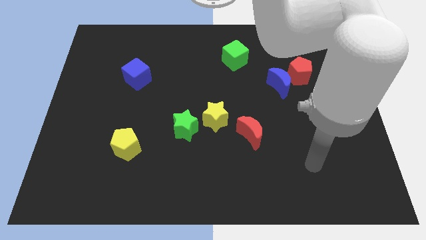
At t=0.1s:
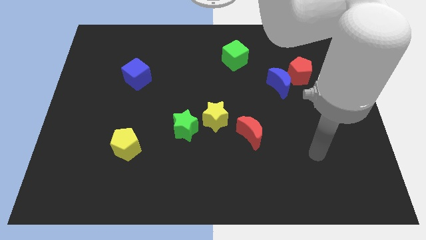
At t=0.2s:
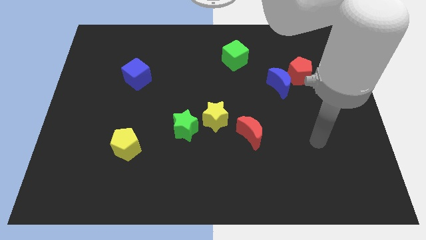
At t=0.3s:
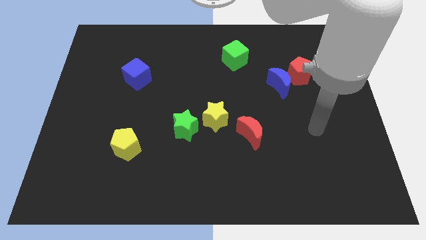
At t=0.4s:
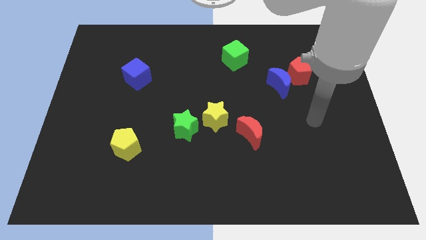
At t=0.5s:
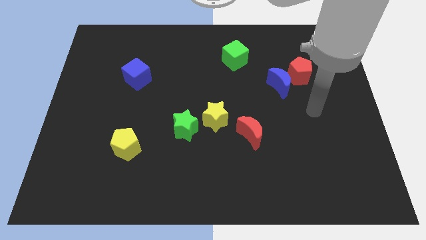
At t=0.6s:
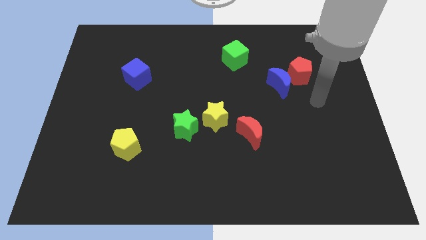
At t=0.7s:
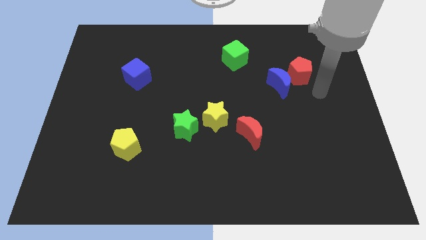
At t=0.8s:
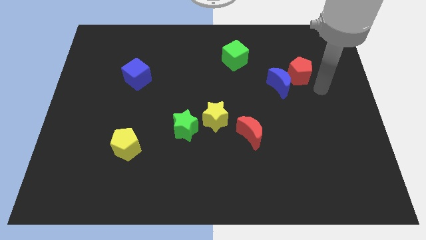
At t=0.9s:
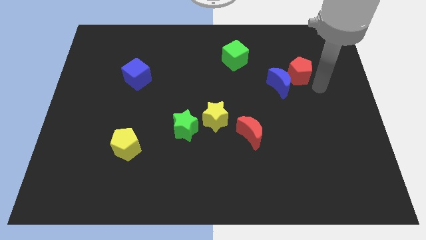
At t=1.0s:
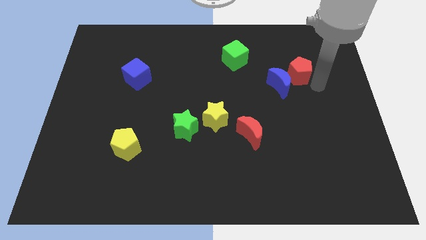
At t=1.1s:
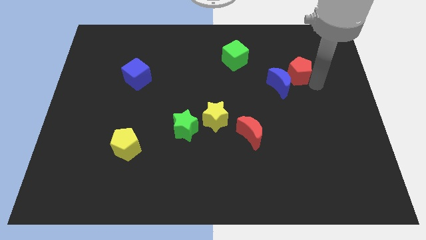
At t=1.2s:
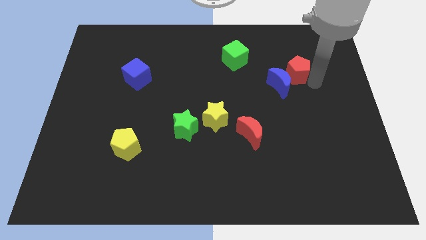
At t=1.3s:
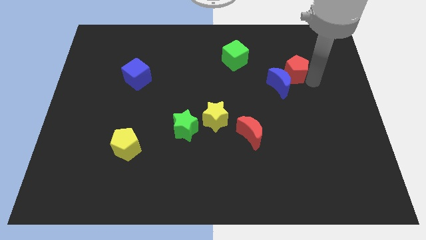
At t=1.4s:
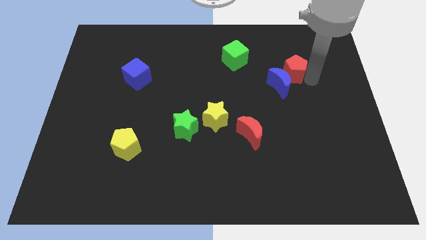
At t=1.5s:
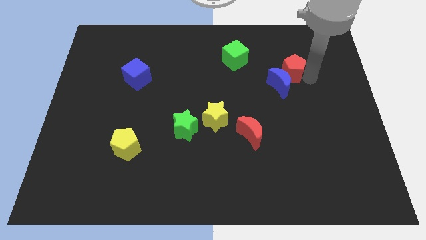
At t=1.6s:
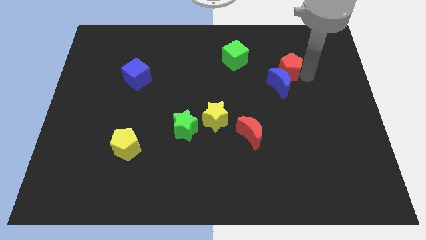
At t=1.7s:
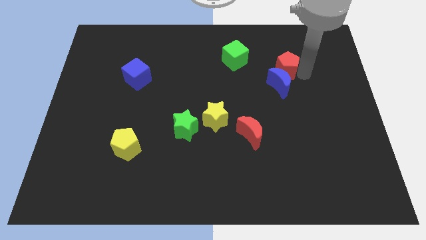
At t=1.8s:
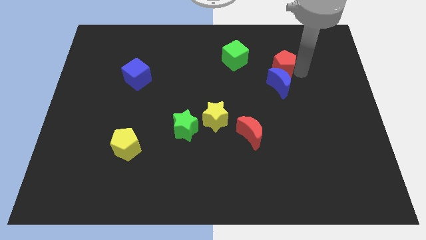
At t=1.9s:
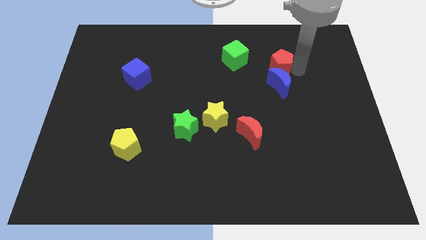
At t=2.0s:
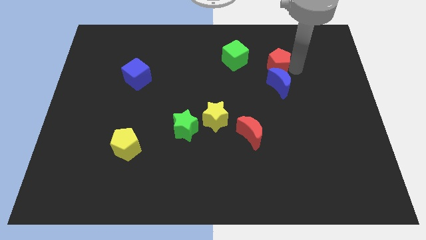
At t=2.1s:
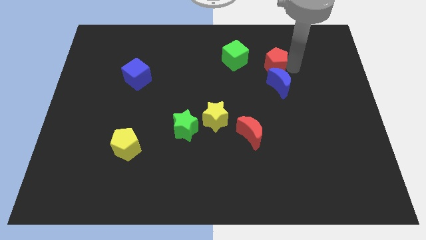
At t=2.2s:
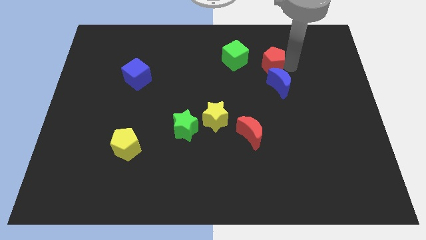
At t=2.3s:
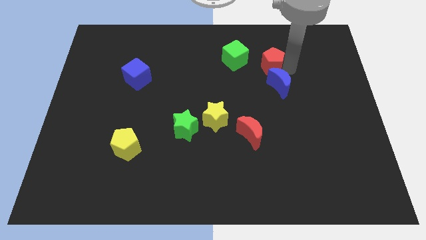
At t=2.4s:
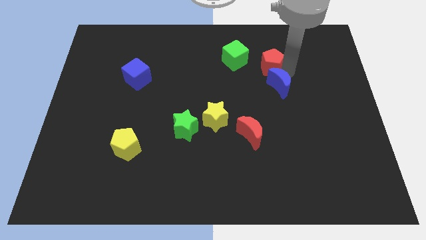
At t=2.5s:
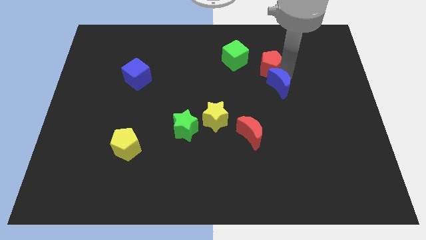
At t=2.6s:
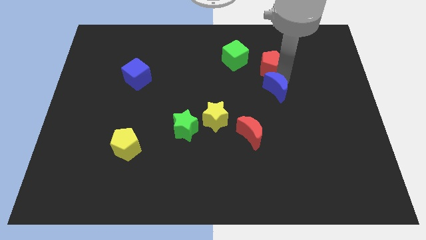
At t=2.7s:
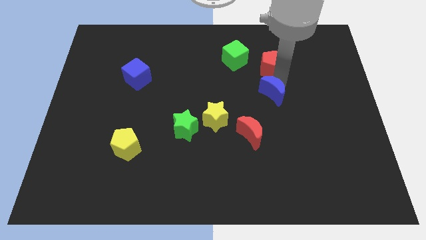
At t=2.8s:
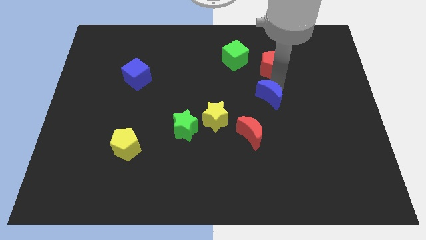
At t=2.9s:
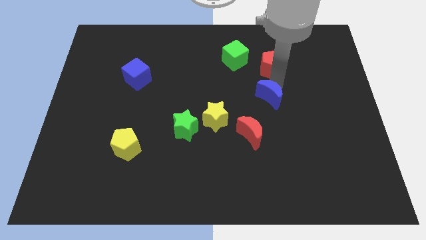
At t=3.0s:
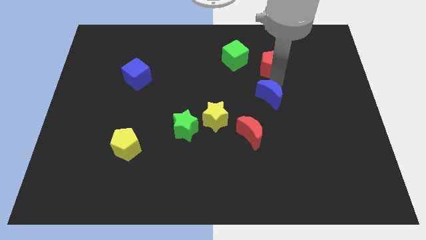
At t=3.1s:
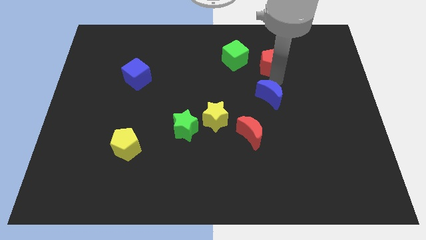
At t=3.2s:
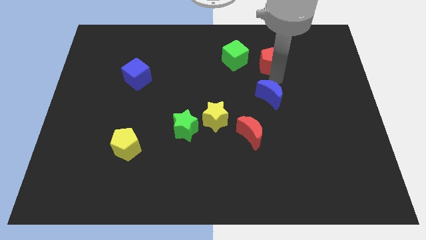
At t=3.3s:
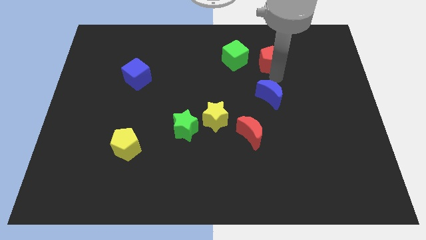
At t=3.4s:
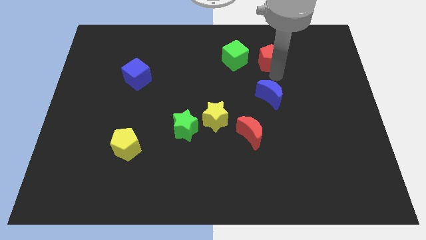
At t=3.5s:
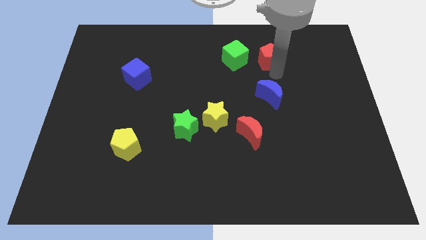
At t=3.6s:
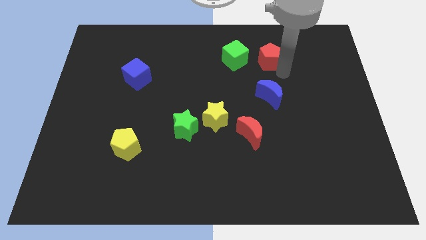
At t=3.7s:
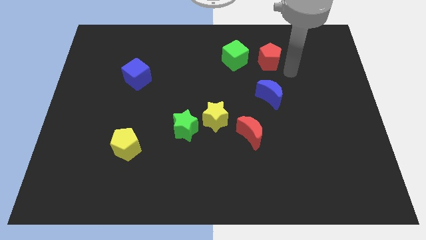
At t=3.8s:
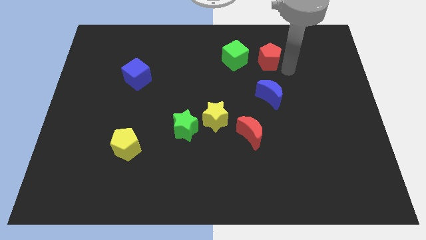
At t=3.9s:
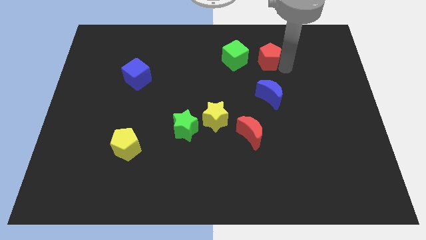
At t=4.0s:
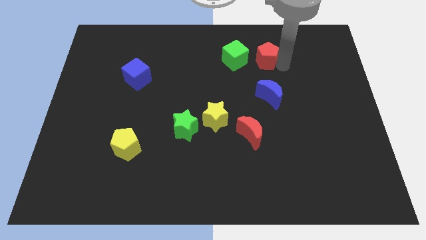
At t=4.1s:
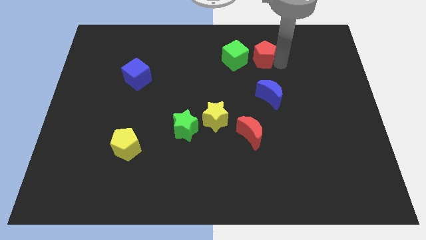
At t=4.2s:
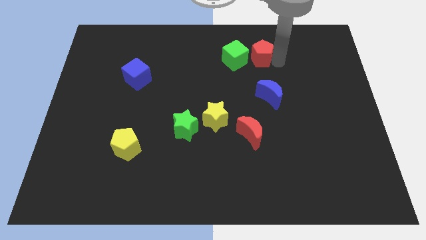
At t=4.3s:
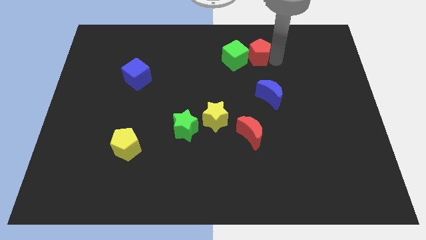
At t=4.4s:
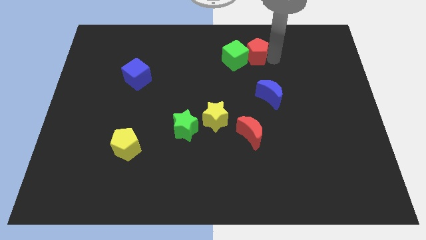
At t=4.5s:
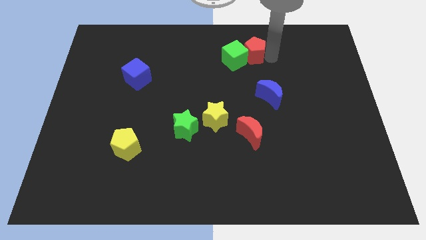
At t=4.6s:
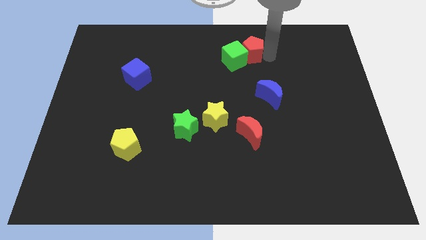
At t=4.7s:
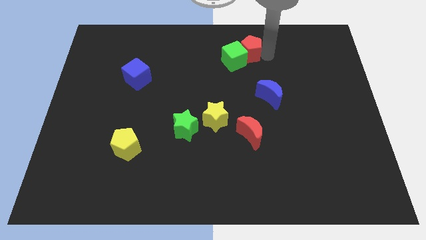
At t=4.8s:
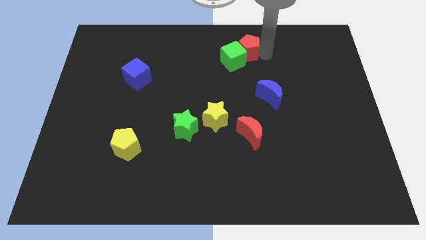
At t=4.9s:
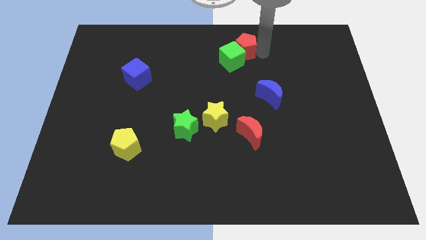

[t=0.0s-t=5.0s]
move the red pentagon to the top

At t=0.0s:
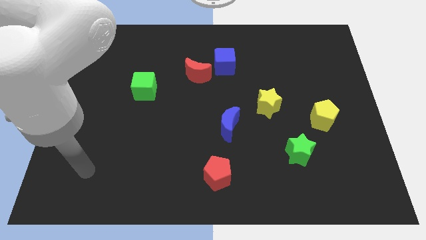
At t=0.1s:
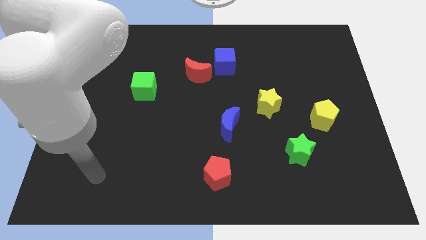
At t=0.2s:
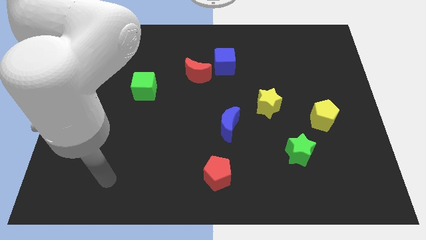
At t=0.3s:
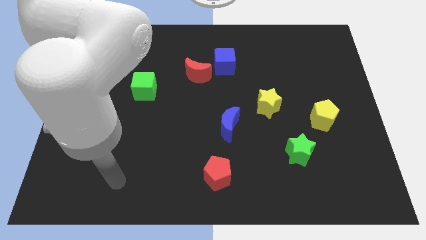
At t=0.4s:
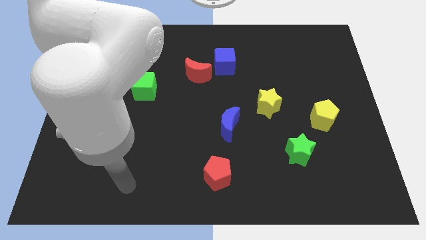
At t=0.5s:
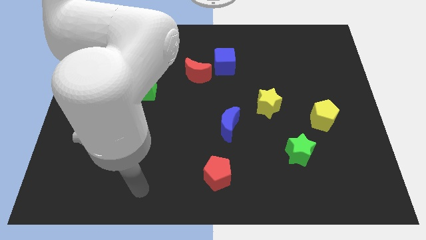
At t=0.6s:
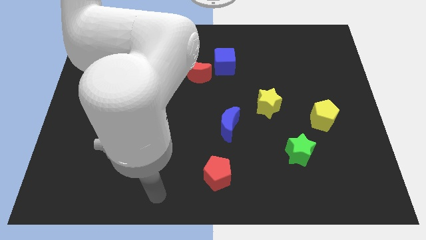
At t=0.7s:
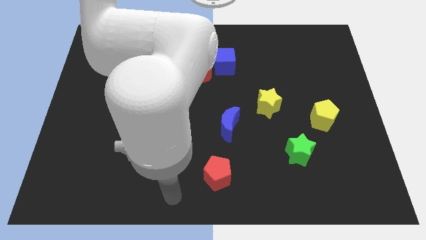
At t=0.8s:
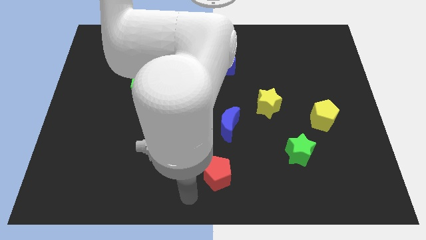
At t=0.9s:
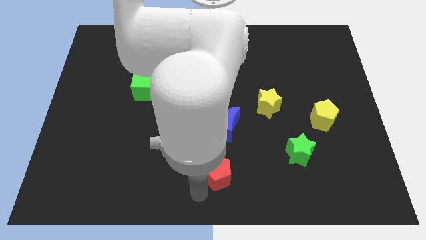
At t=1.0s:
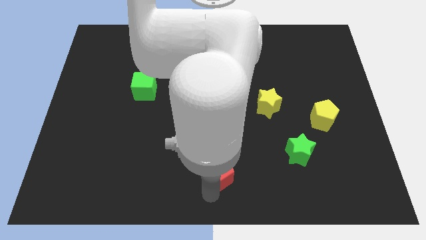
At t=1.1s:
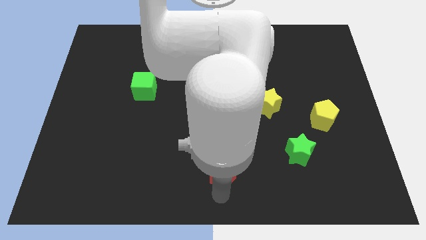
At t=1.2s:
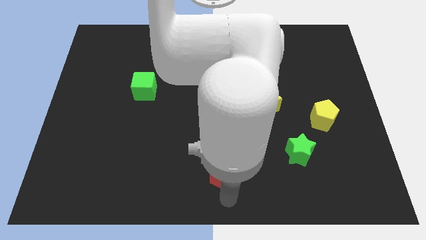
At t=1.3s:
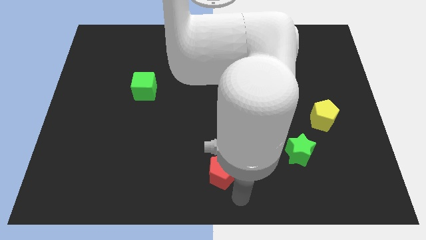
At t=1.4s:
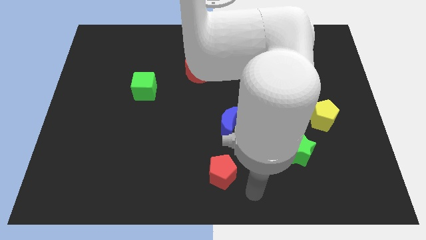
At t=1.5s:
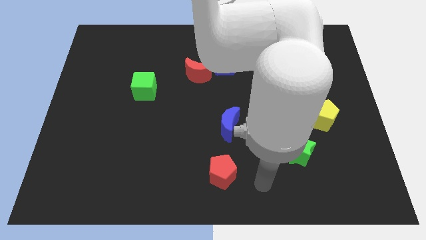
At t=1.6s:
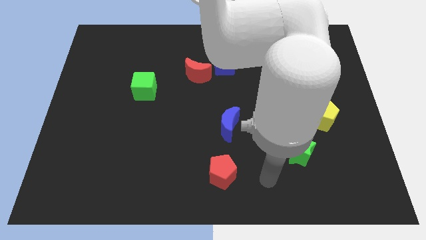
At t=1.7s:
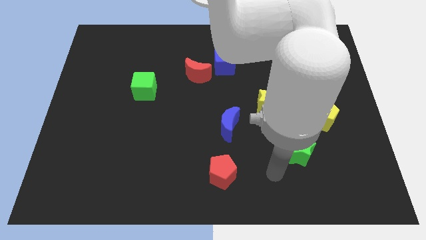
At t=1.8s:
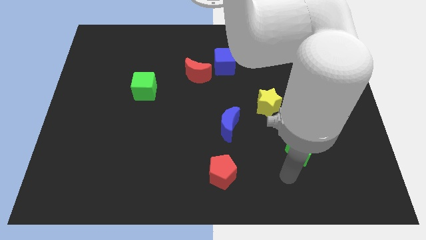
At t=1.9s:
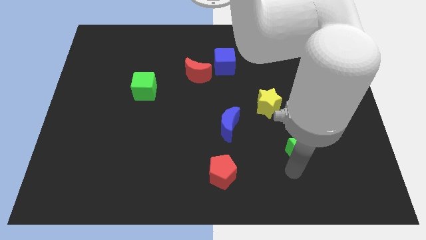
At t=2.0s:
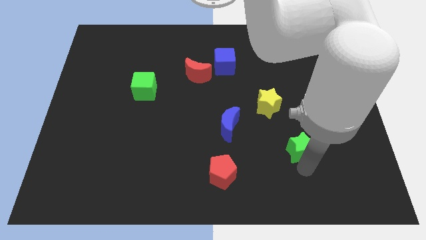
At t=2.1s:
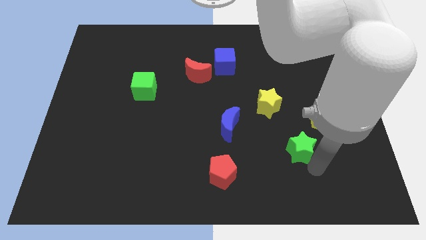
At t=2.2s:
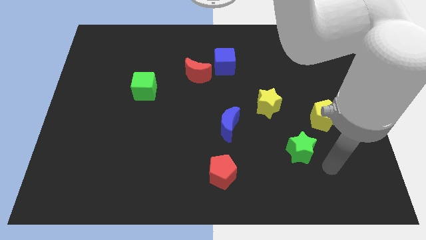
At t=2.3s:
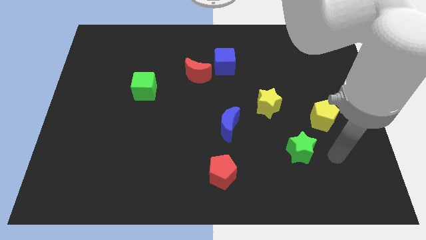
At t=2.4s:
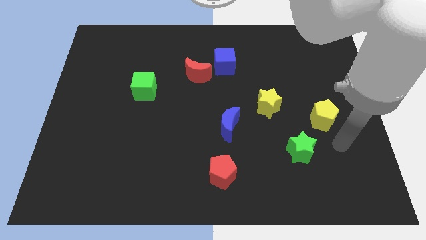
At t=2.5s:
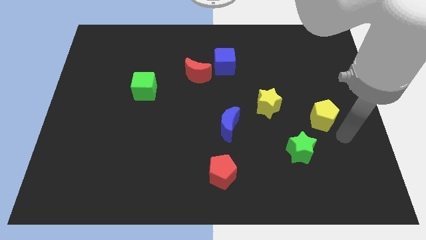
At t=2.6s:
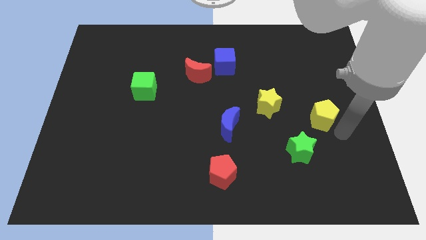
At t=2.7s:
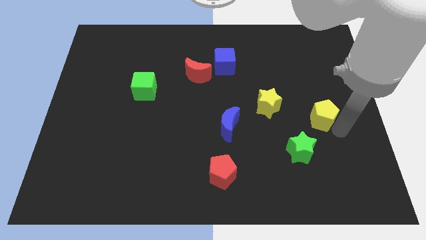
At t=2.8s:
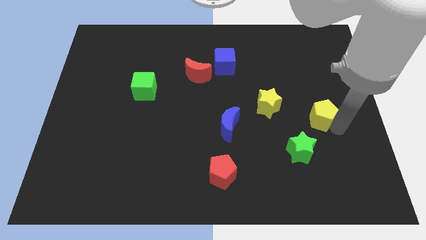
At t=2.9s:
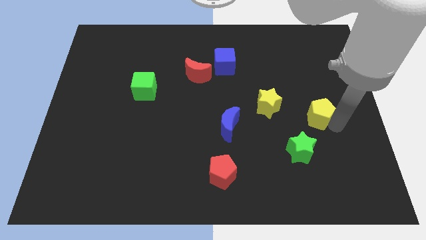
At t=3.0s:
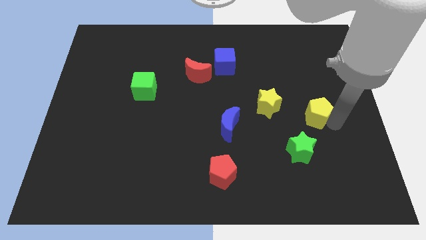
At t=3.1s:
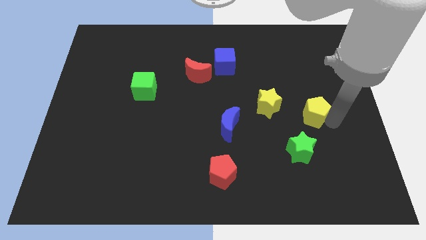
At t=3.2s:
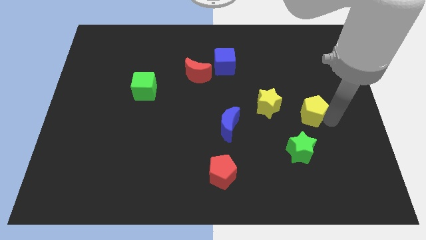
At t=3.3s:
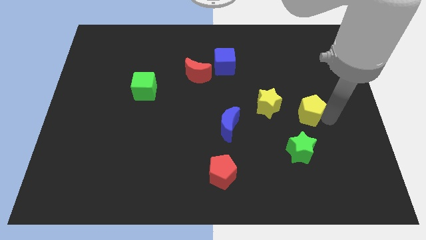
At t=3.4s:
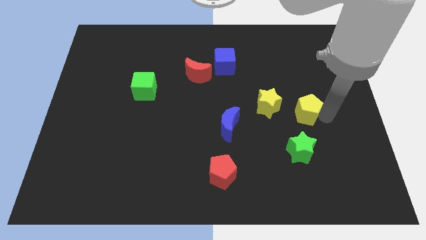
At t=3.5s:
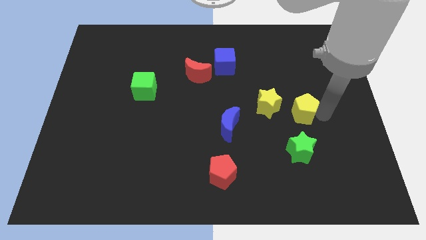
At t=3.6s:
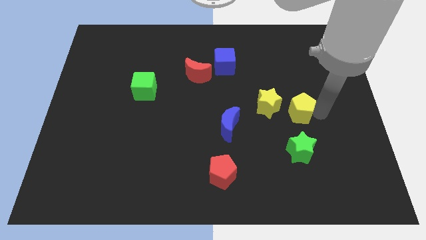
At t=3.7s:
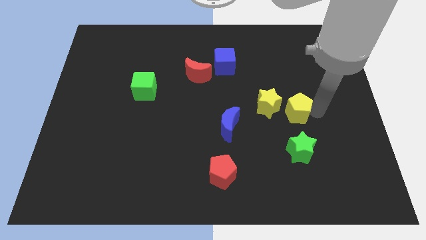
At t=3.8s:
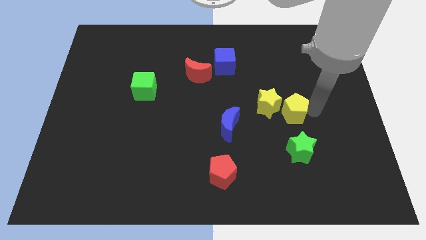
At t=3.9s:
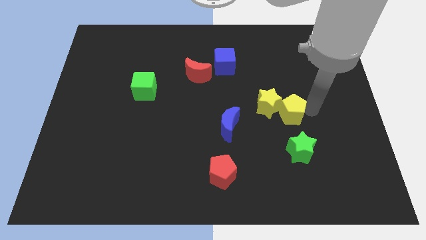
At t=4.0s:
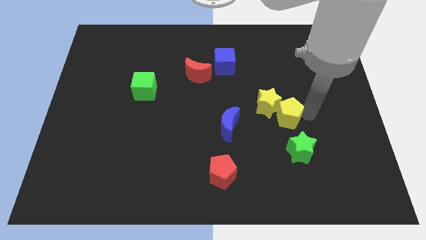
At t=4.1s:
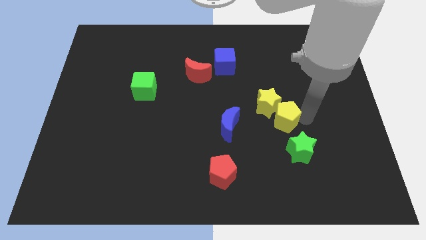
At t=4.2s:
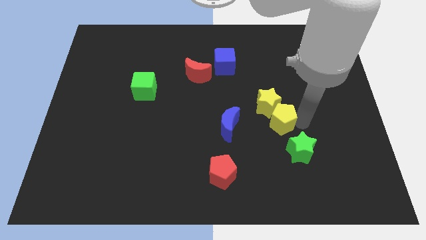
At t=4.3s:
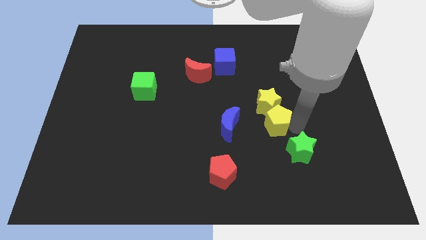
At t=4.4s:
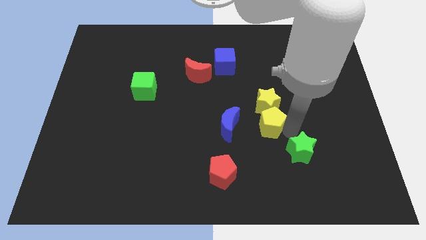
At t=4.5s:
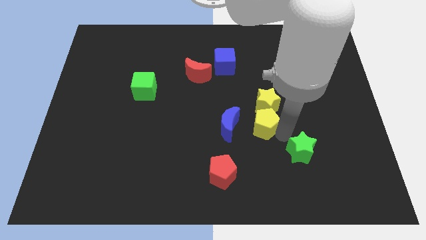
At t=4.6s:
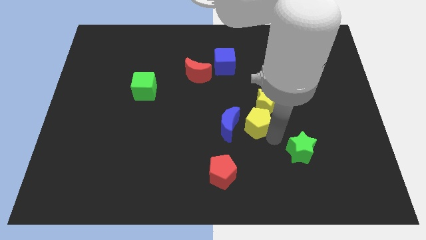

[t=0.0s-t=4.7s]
slide the yellow pentagon to the center of the board
